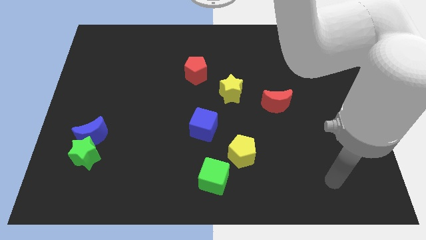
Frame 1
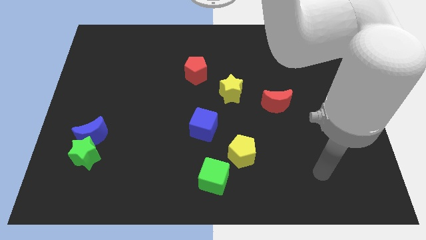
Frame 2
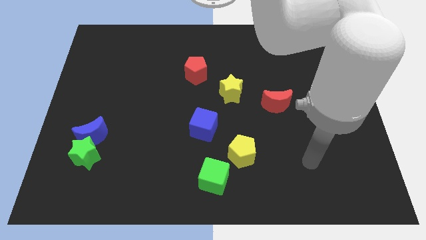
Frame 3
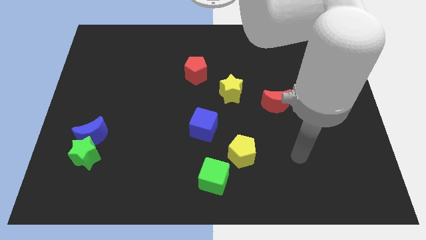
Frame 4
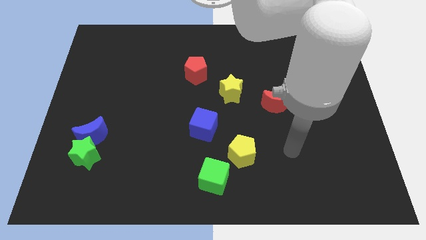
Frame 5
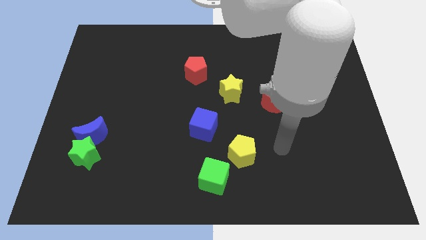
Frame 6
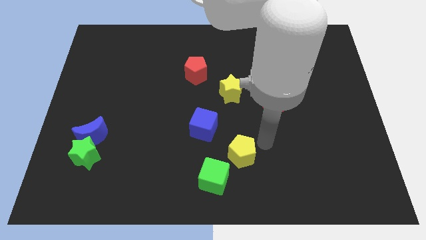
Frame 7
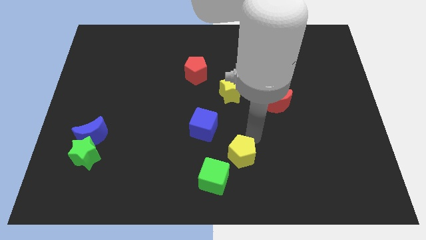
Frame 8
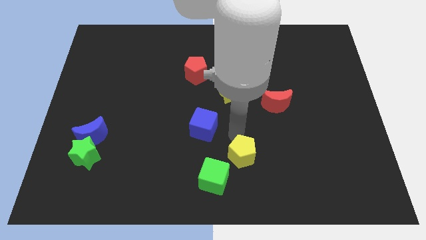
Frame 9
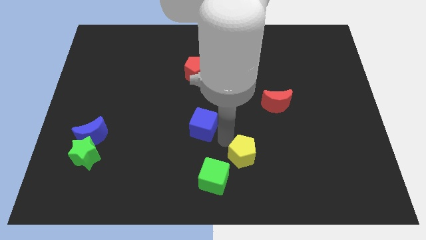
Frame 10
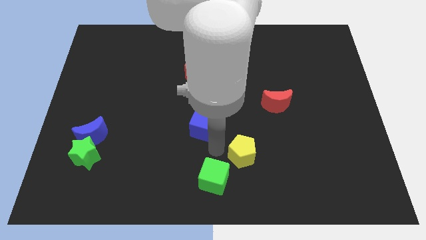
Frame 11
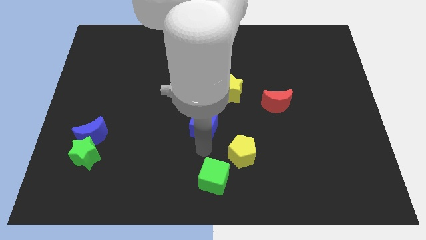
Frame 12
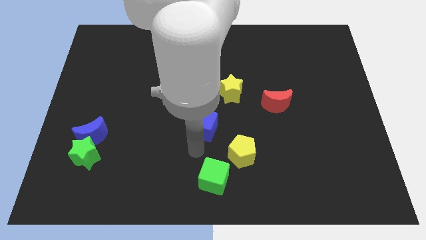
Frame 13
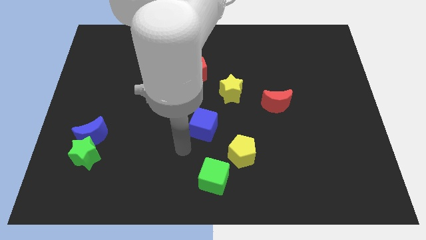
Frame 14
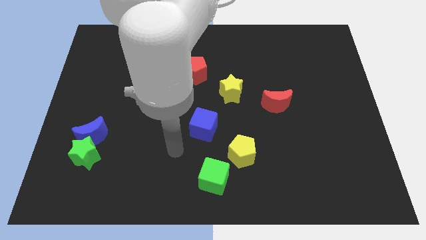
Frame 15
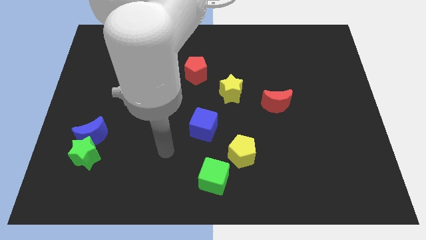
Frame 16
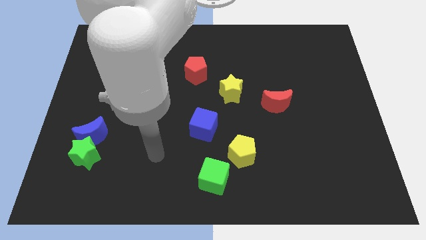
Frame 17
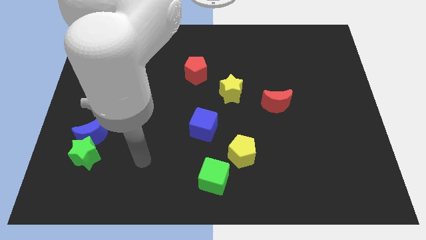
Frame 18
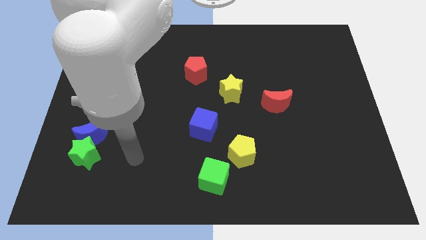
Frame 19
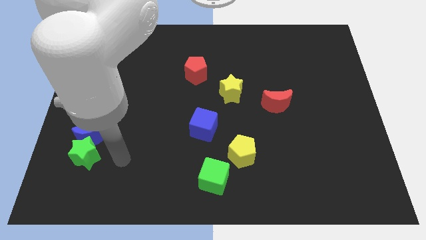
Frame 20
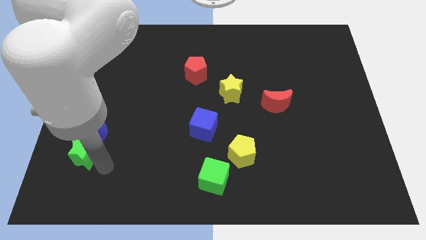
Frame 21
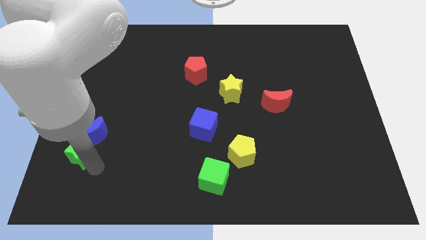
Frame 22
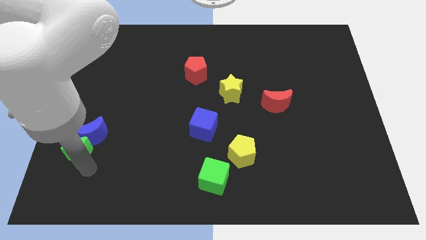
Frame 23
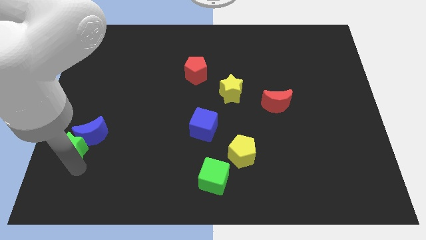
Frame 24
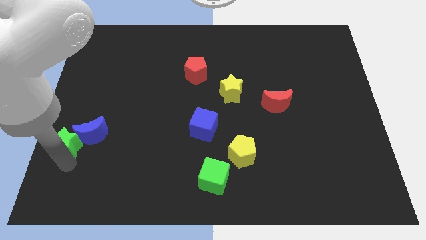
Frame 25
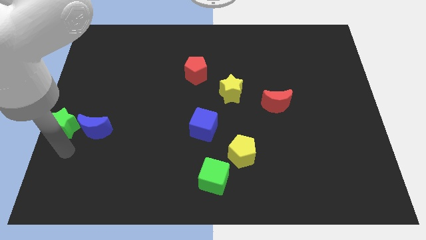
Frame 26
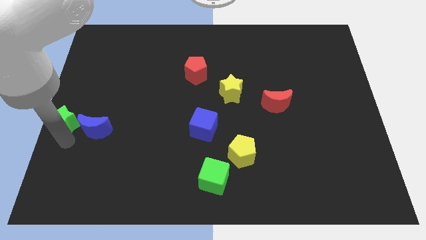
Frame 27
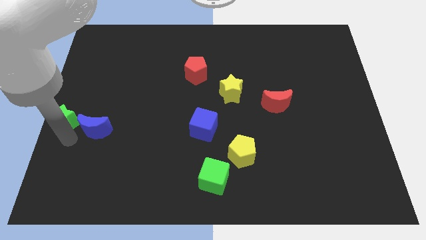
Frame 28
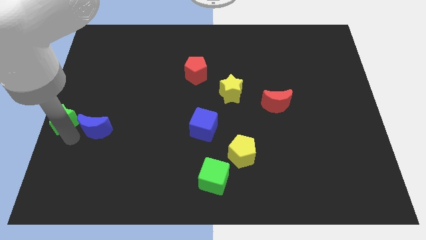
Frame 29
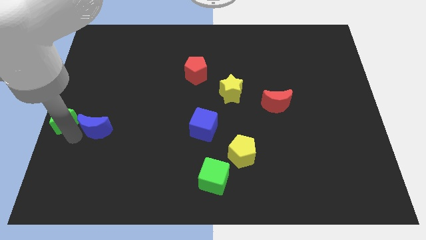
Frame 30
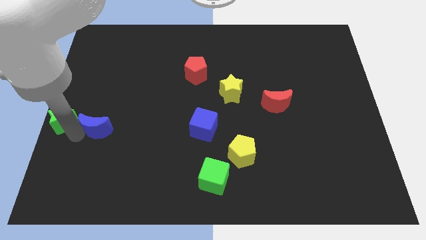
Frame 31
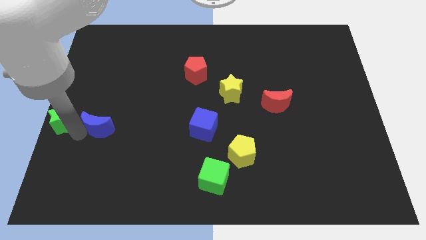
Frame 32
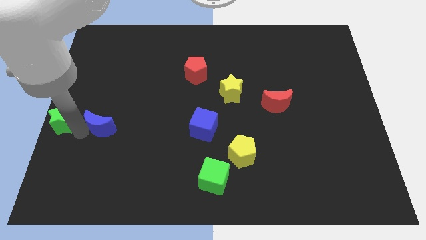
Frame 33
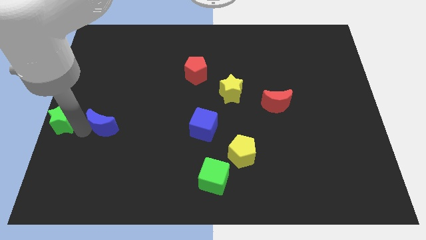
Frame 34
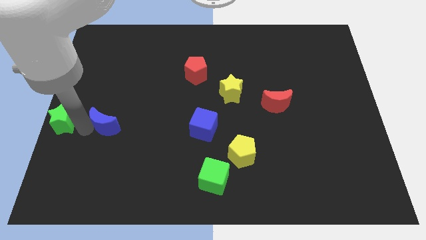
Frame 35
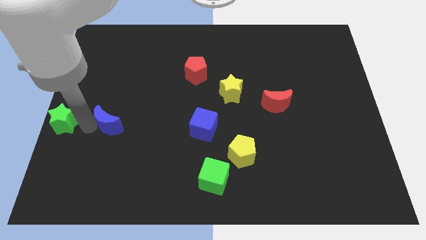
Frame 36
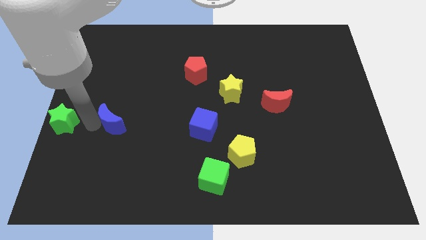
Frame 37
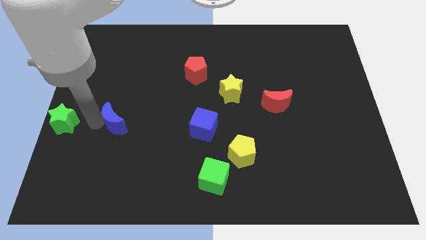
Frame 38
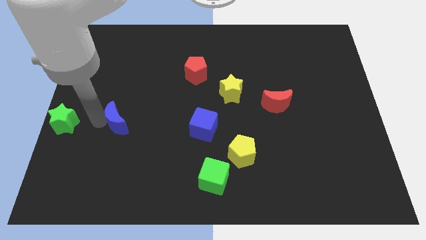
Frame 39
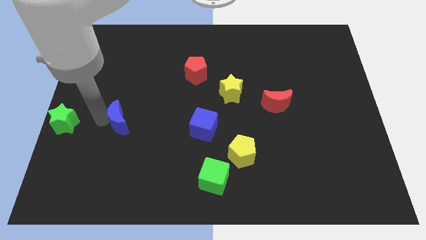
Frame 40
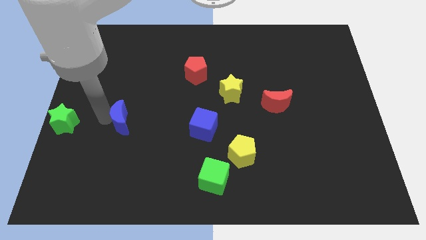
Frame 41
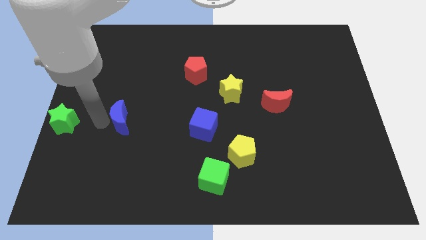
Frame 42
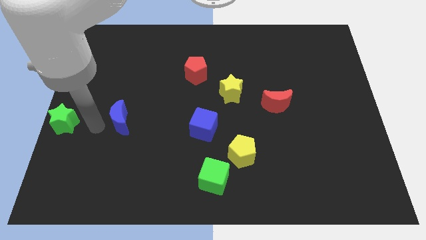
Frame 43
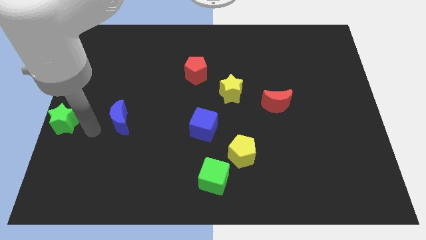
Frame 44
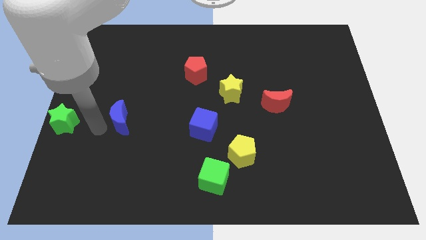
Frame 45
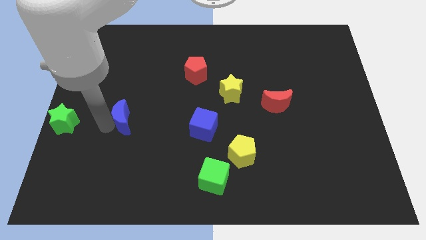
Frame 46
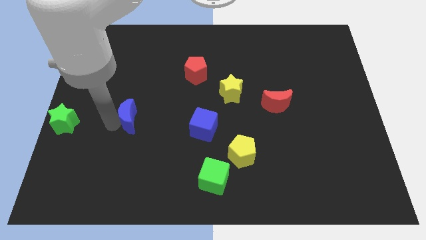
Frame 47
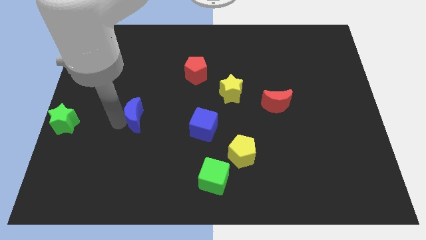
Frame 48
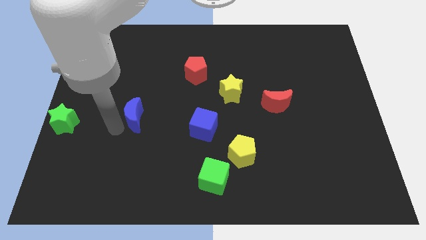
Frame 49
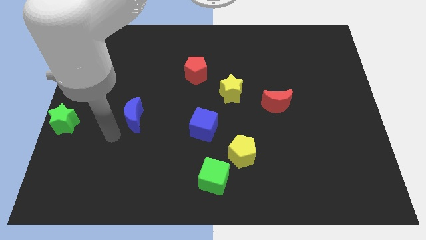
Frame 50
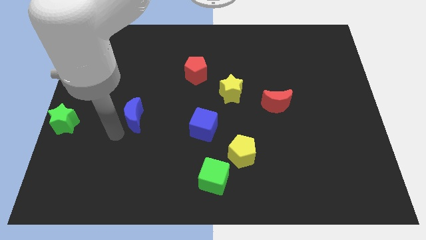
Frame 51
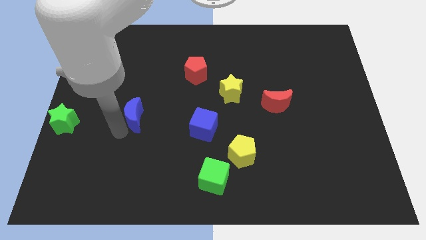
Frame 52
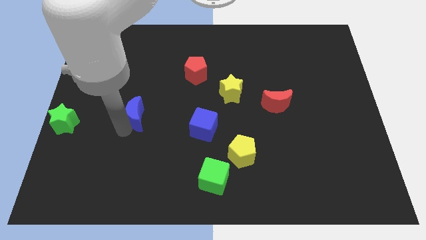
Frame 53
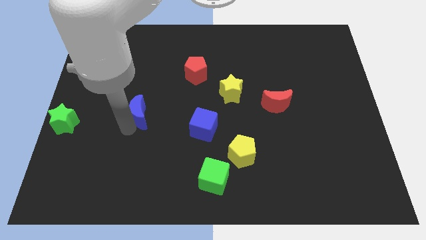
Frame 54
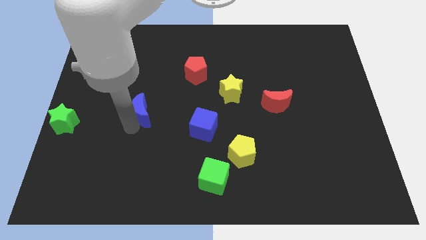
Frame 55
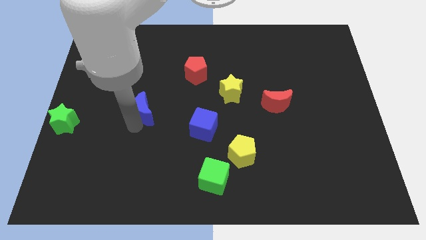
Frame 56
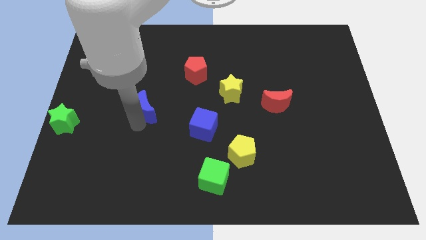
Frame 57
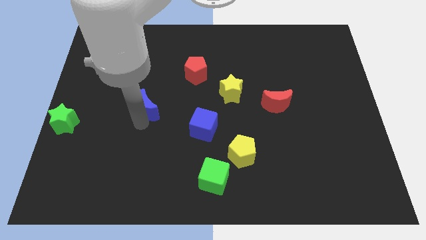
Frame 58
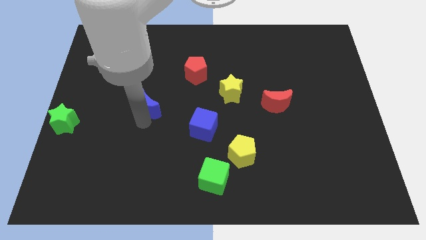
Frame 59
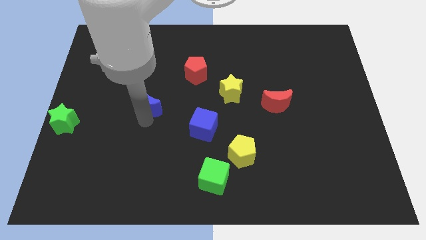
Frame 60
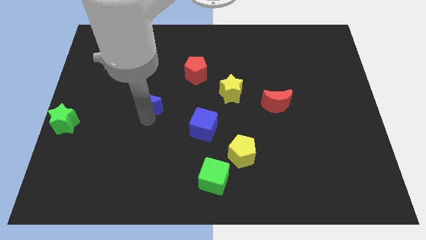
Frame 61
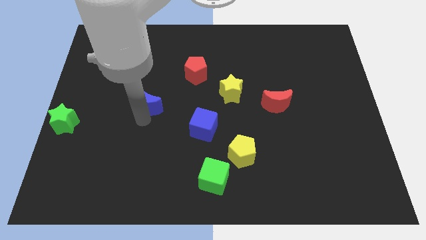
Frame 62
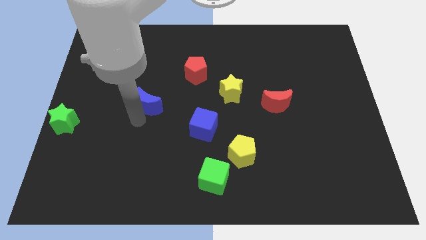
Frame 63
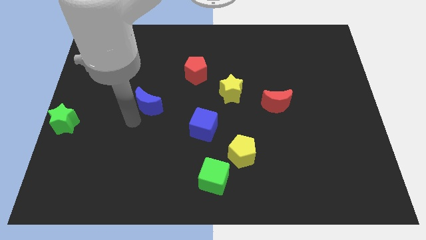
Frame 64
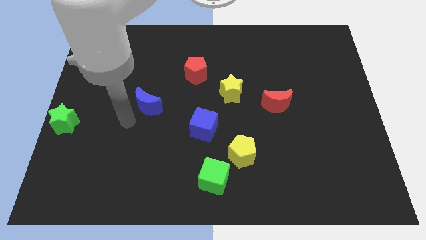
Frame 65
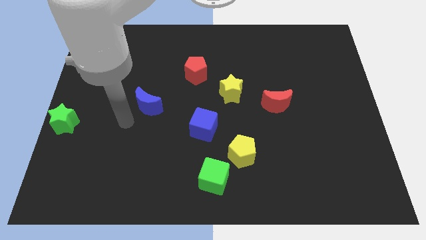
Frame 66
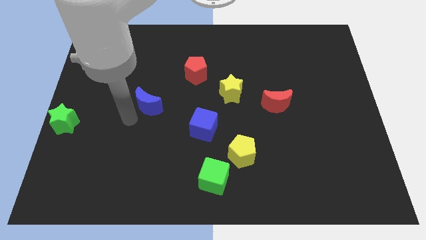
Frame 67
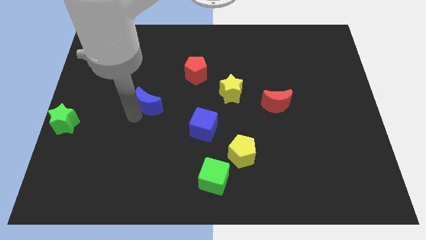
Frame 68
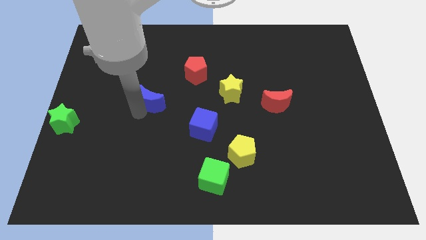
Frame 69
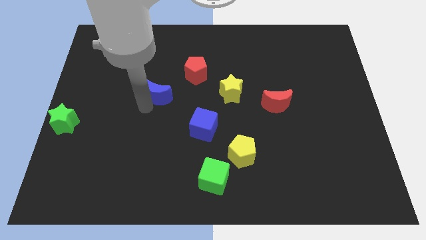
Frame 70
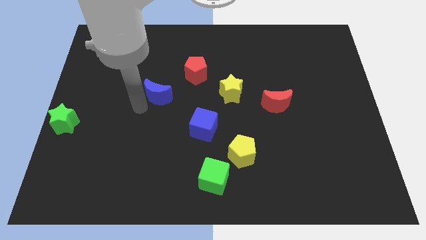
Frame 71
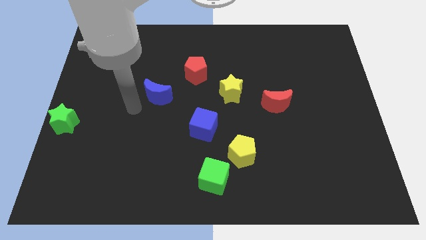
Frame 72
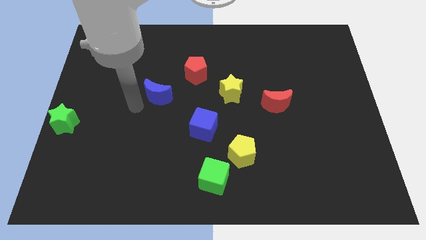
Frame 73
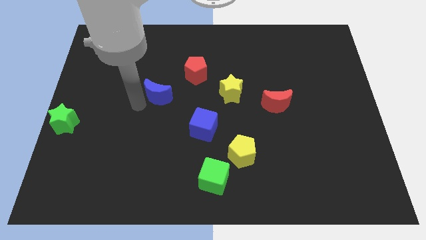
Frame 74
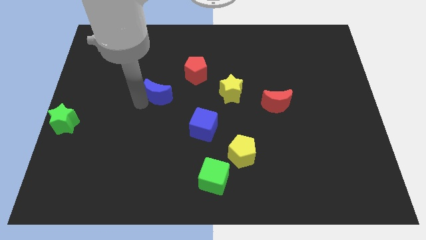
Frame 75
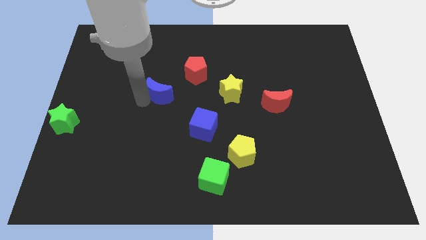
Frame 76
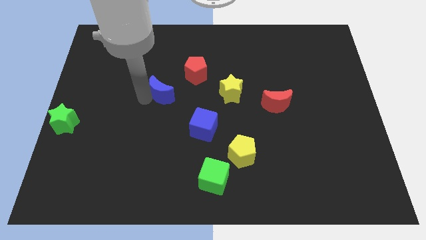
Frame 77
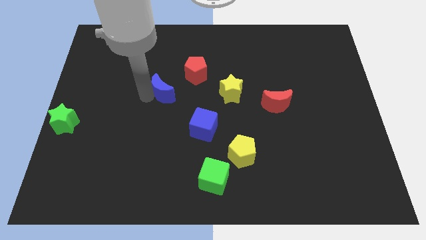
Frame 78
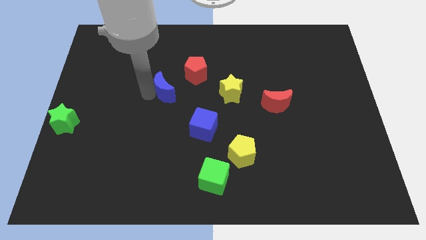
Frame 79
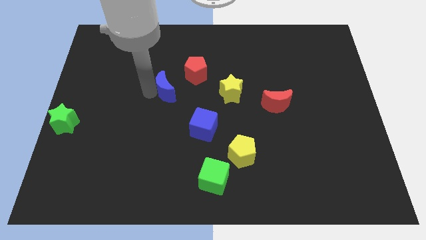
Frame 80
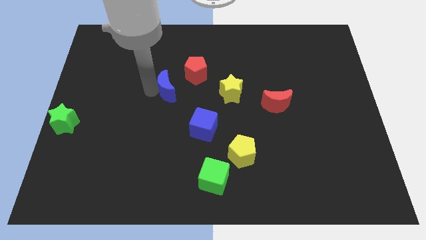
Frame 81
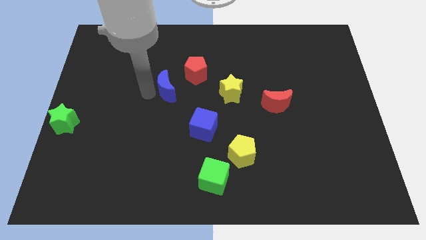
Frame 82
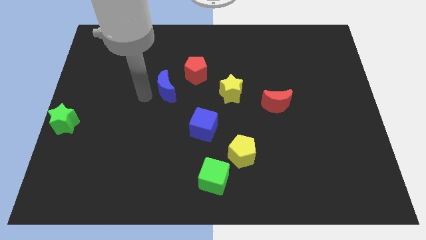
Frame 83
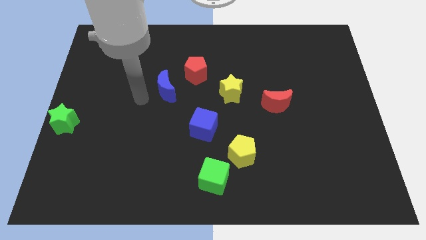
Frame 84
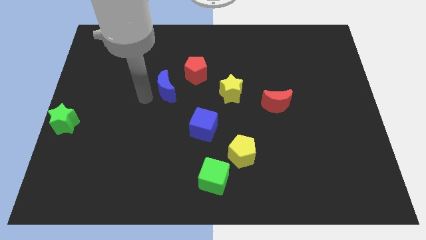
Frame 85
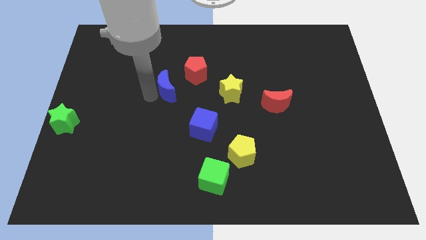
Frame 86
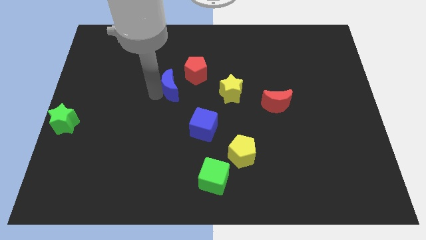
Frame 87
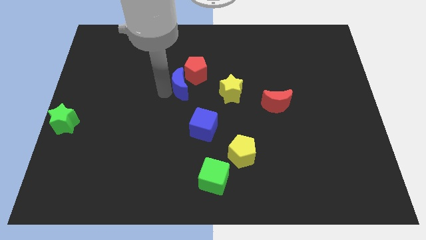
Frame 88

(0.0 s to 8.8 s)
slide the blue moon close to the red pentagon
